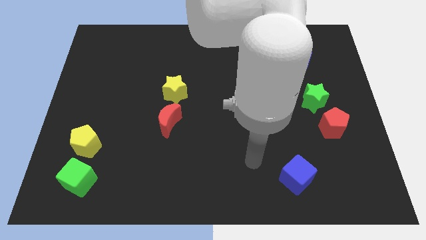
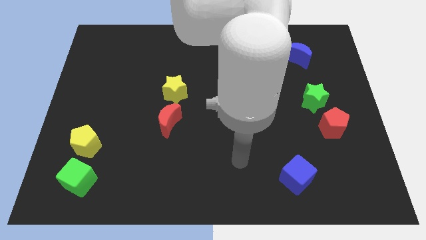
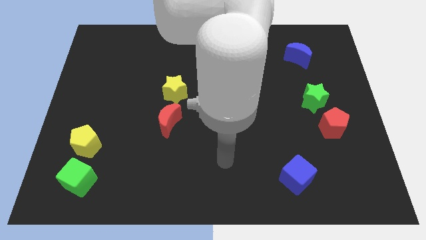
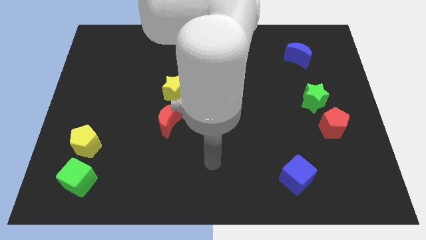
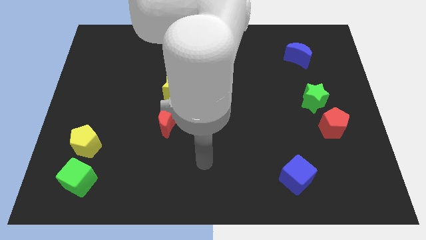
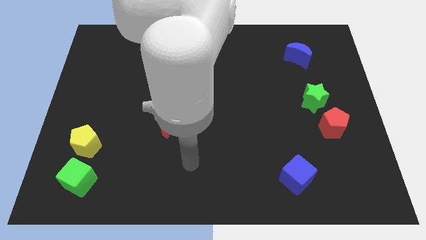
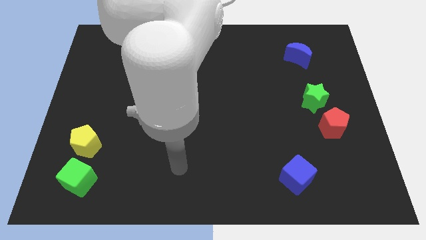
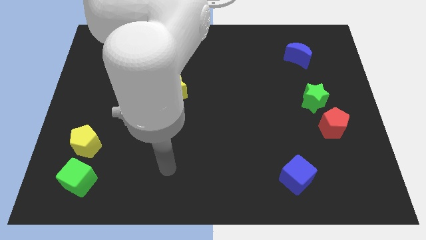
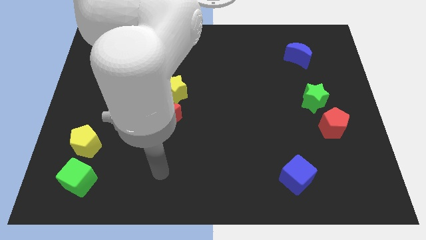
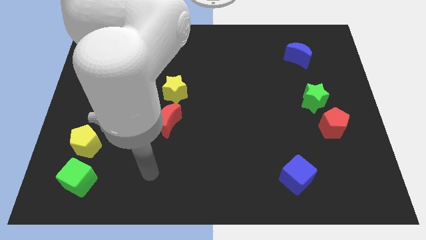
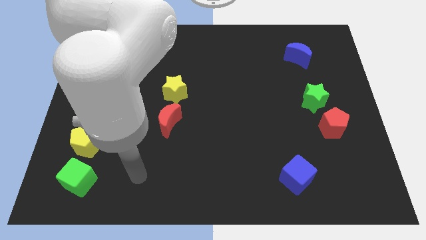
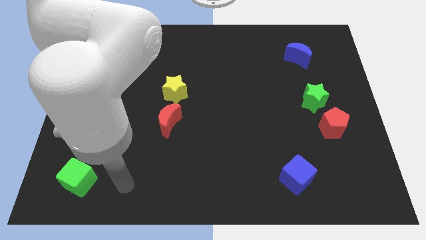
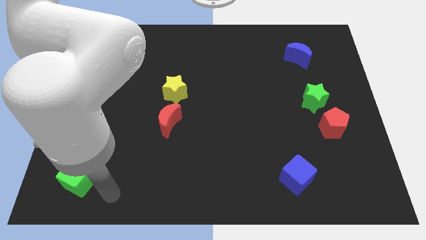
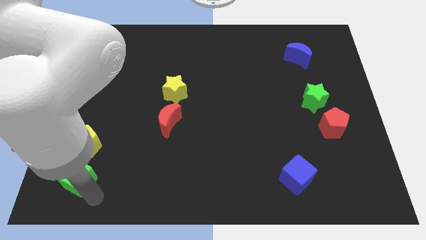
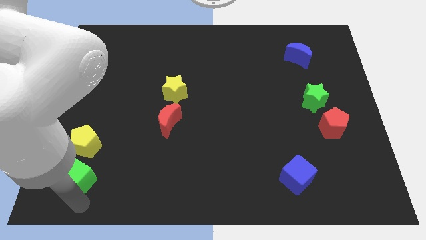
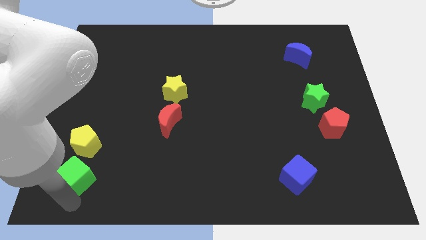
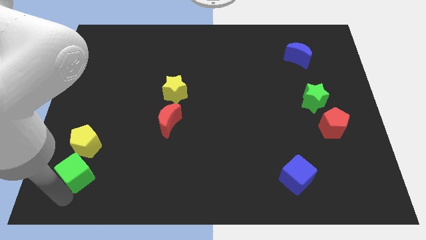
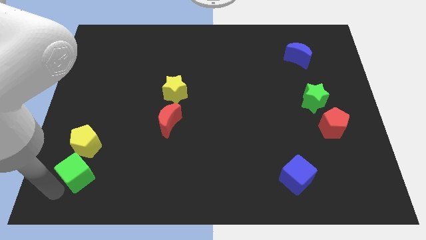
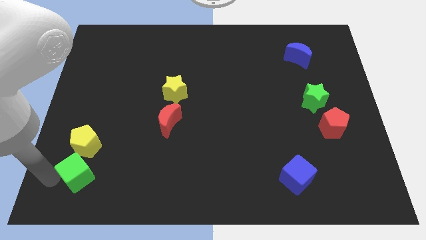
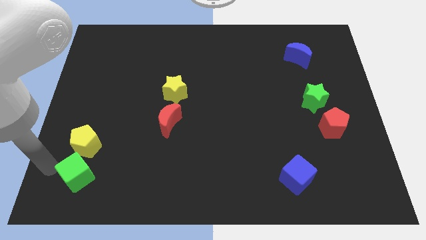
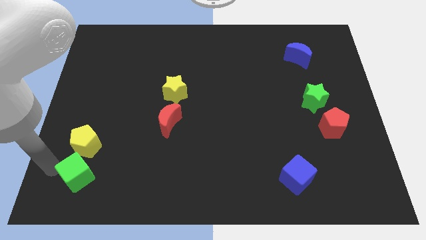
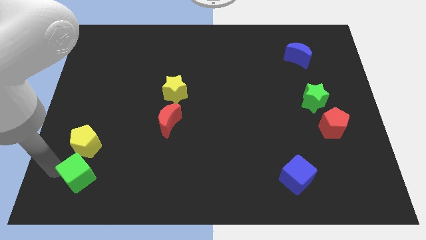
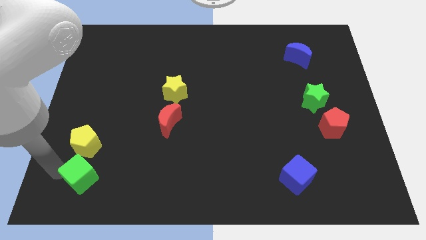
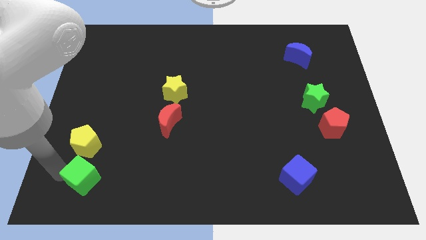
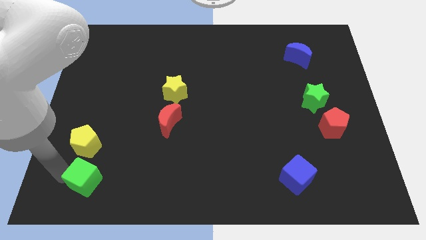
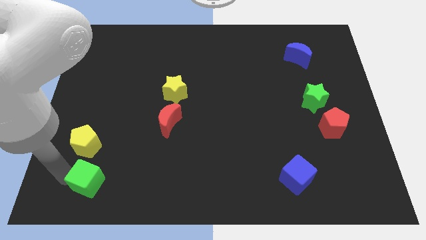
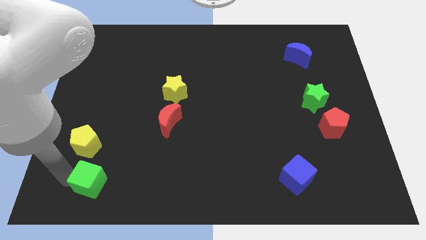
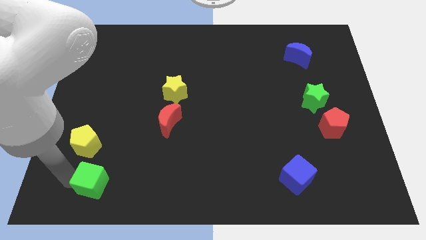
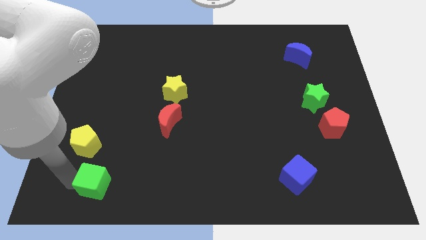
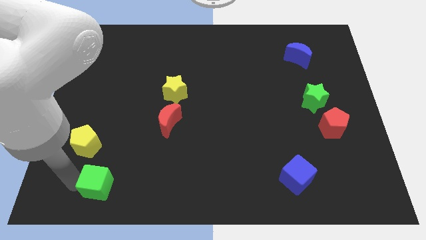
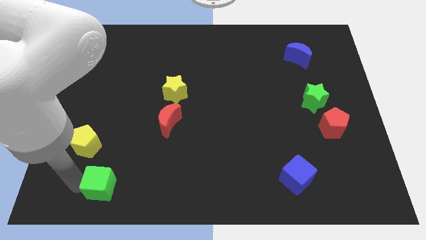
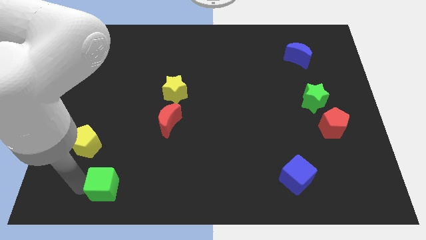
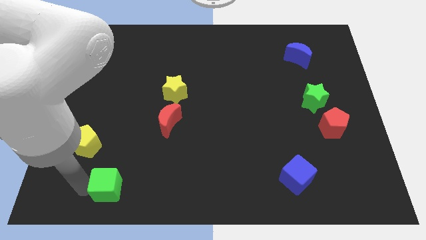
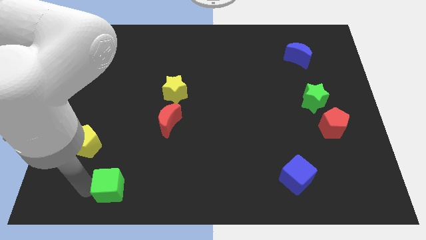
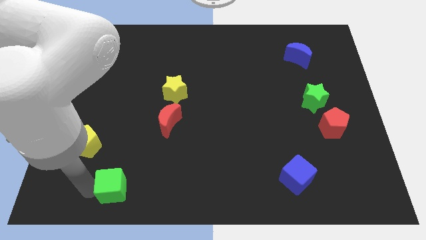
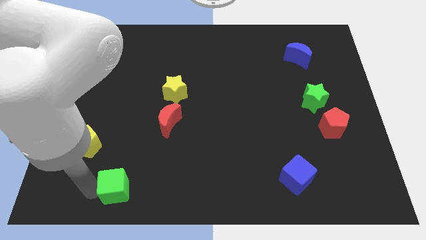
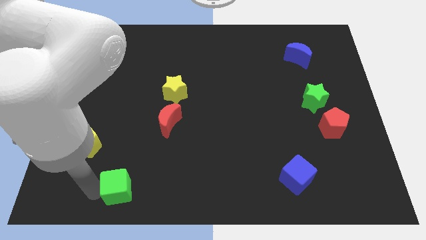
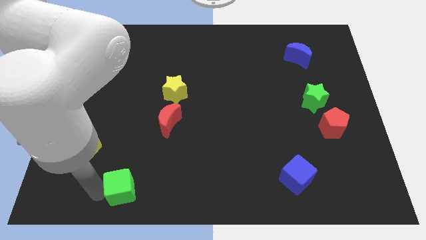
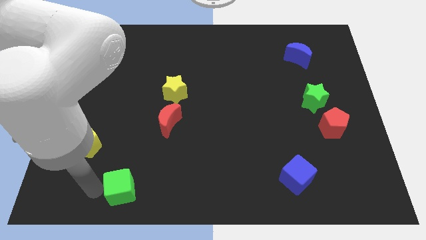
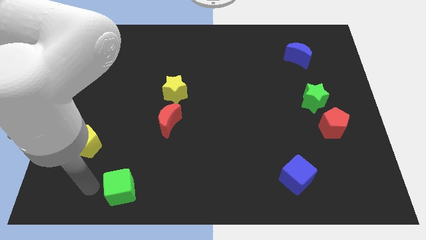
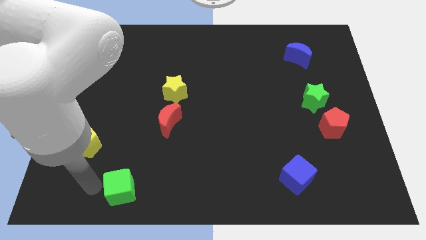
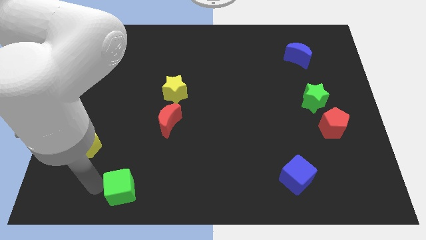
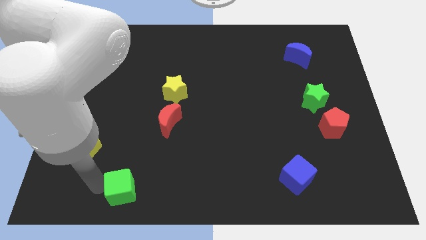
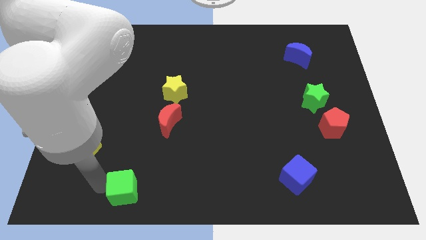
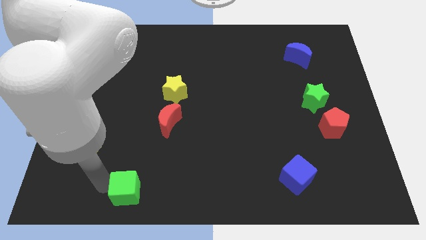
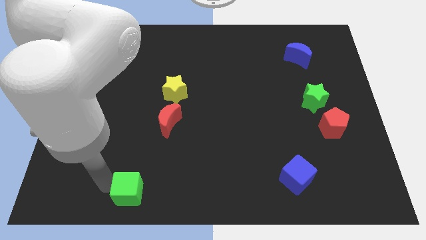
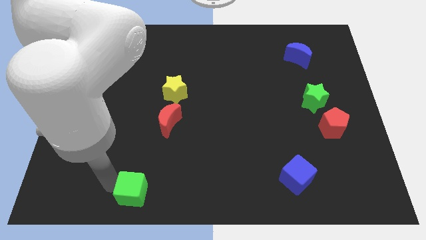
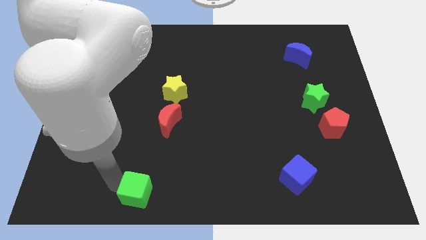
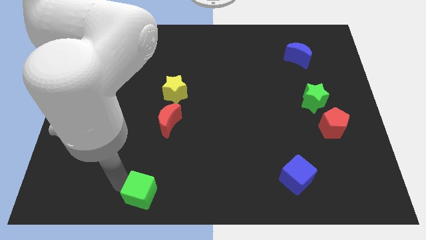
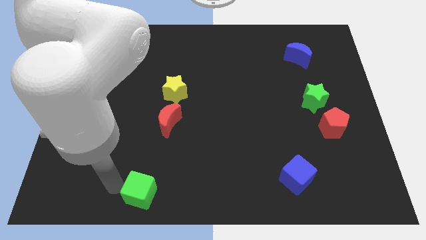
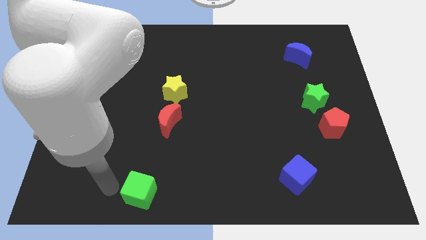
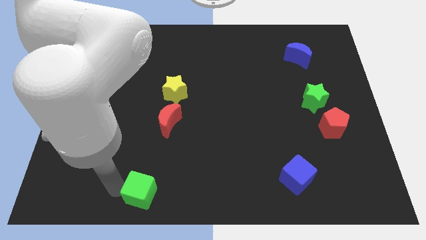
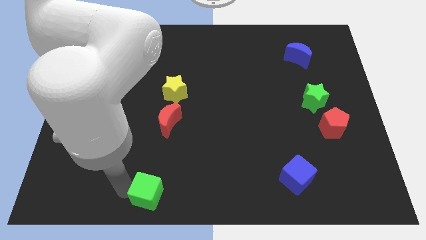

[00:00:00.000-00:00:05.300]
put the green cube to the bottom side

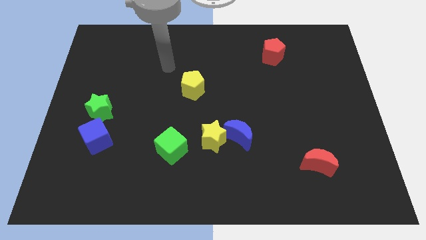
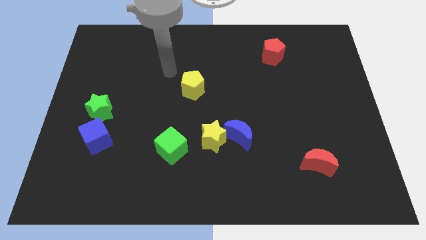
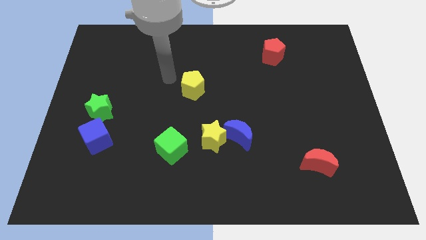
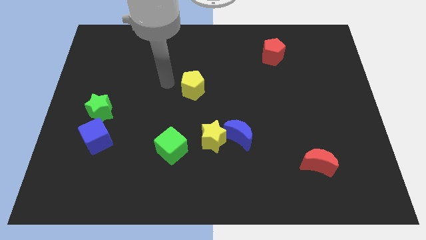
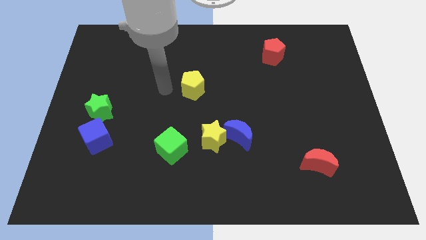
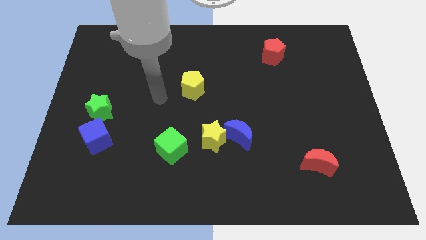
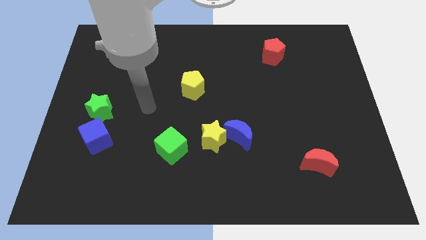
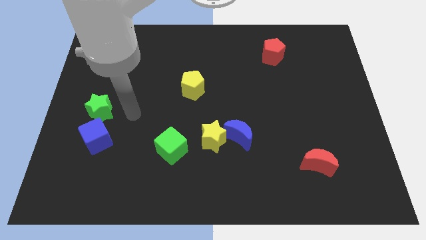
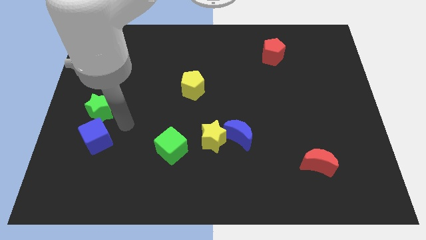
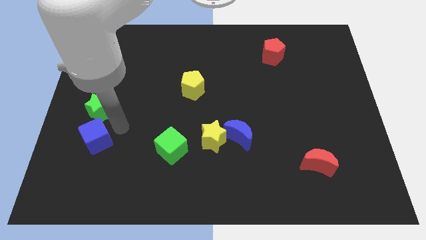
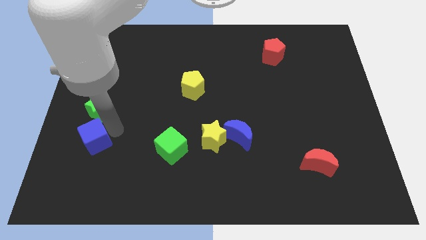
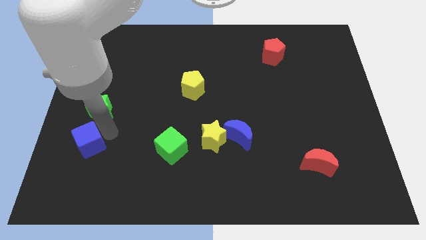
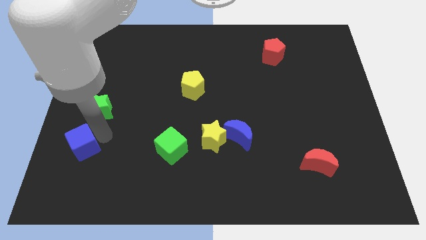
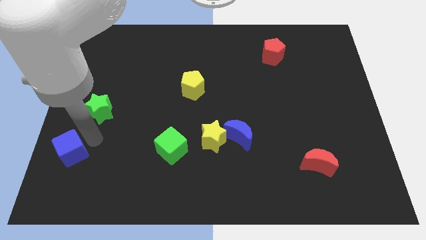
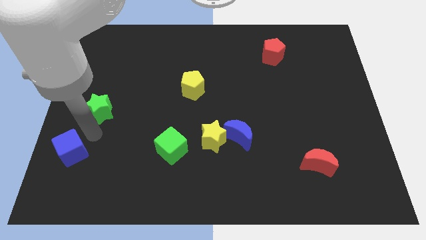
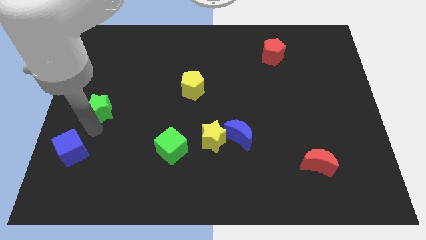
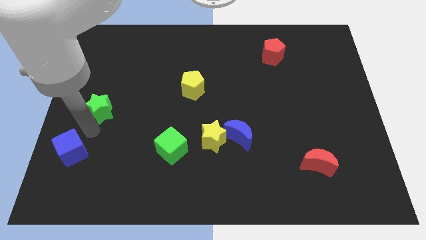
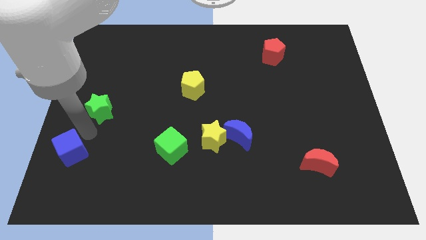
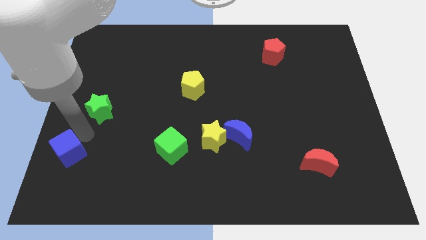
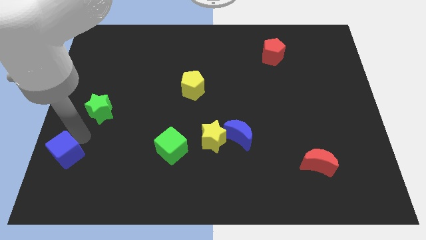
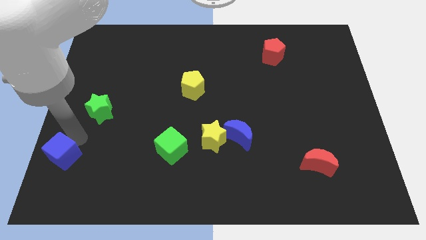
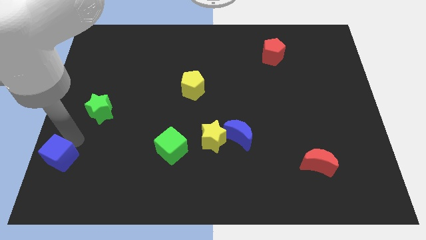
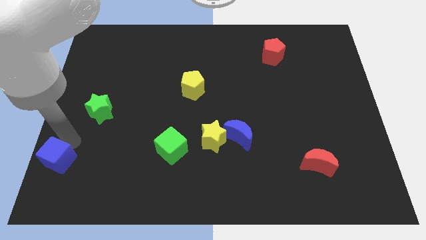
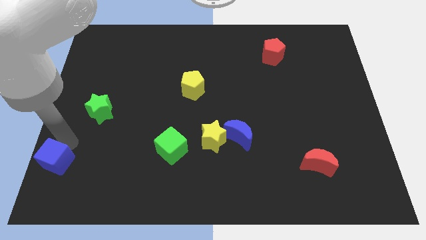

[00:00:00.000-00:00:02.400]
slide the blue cube to the bottom left corner
